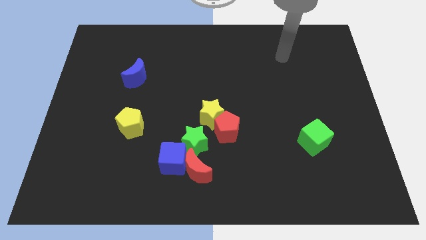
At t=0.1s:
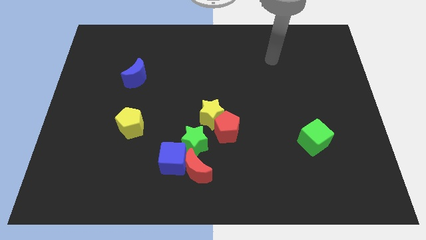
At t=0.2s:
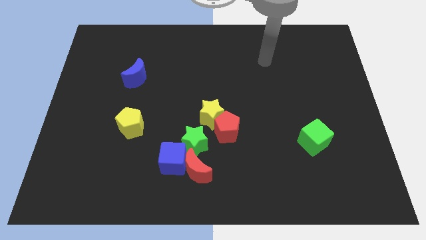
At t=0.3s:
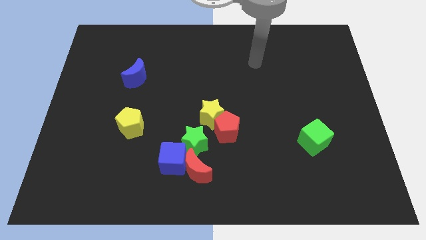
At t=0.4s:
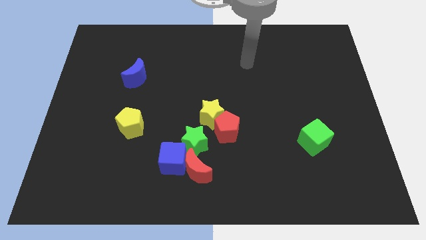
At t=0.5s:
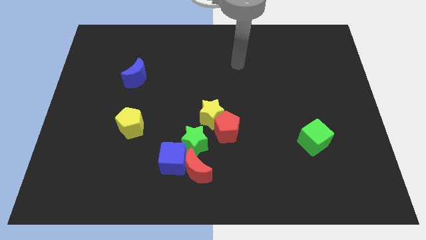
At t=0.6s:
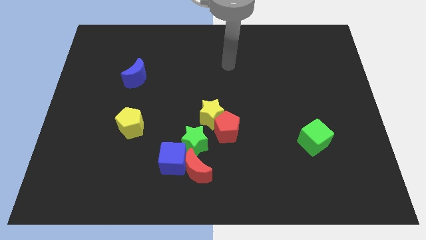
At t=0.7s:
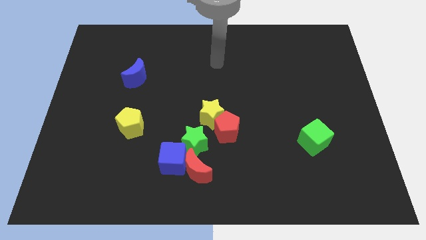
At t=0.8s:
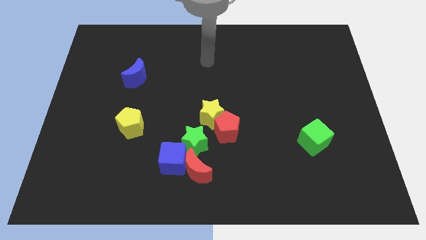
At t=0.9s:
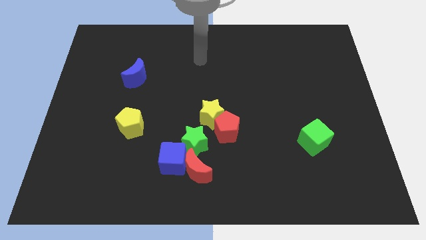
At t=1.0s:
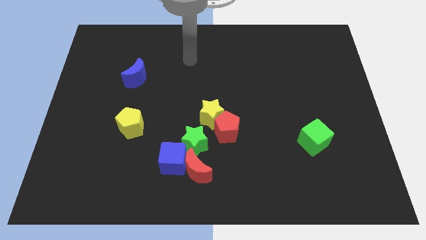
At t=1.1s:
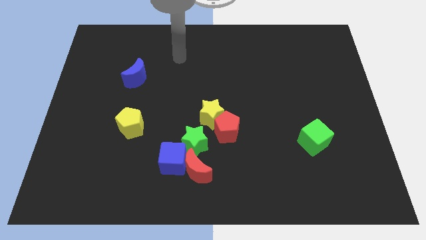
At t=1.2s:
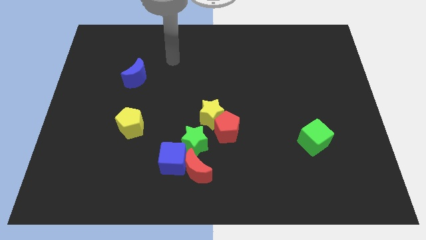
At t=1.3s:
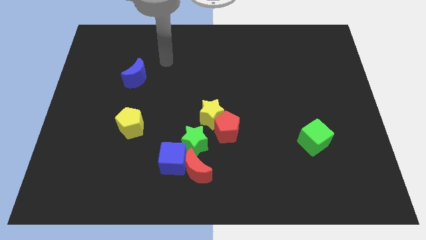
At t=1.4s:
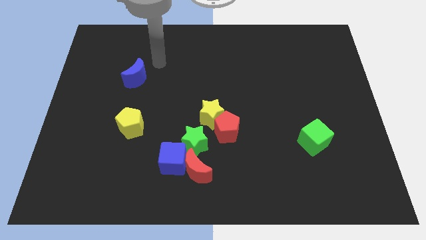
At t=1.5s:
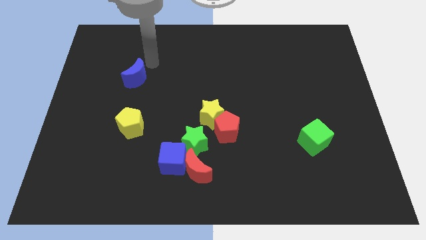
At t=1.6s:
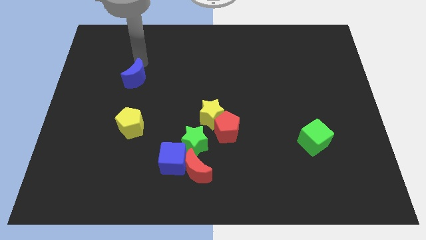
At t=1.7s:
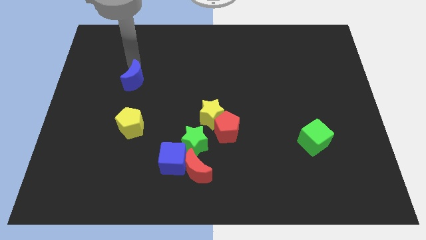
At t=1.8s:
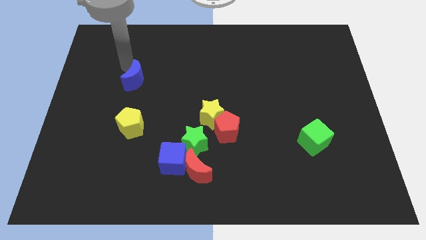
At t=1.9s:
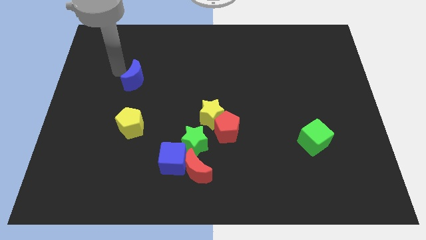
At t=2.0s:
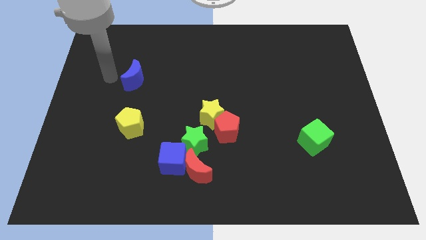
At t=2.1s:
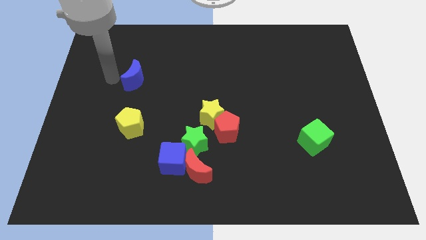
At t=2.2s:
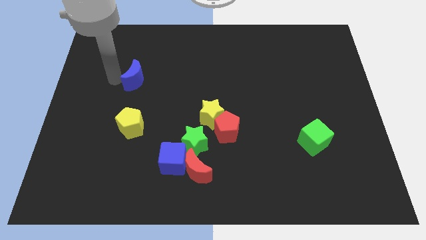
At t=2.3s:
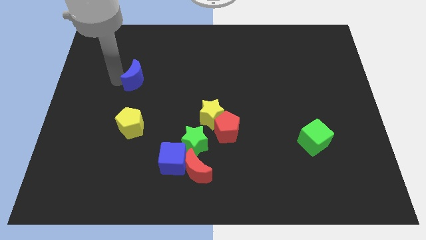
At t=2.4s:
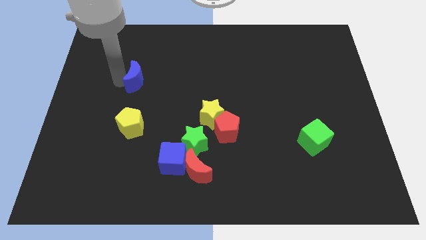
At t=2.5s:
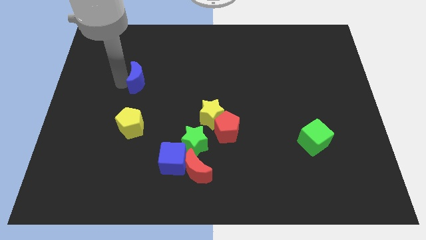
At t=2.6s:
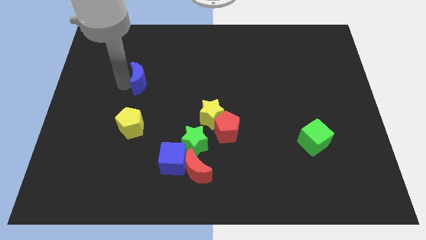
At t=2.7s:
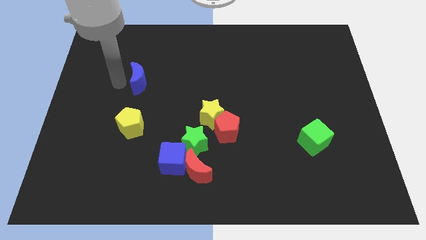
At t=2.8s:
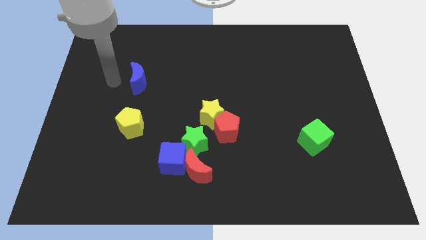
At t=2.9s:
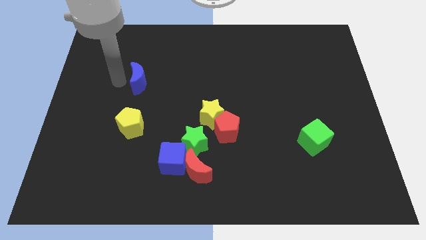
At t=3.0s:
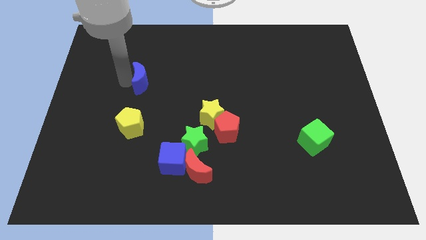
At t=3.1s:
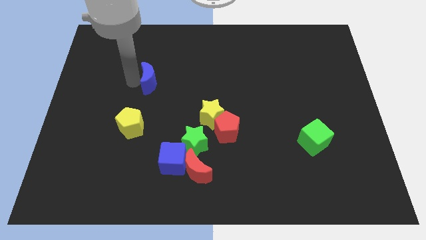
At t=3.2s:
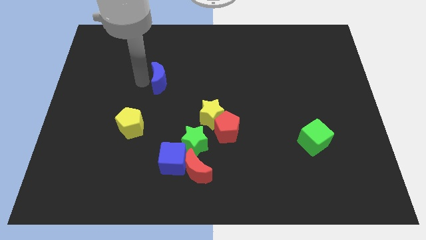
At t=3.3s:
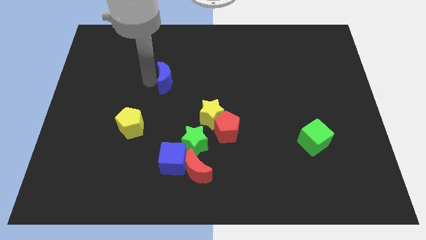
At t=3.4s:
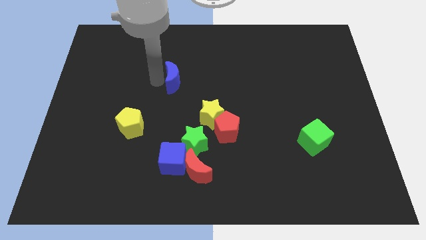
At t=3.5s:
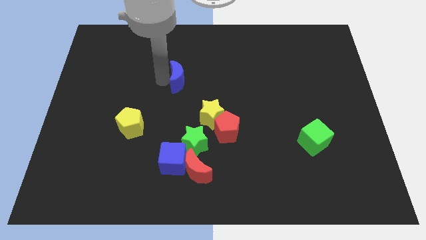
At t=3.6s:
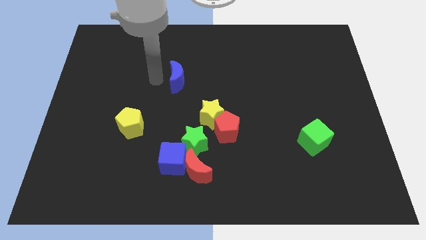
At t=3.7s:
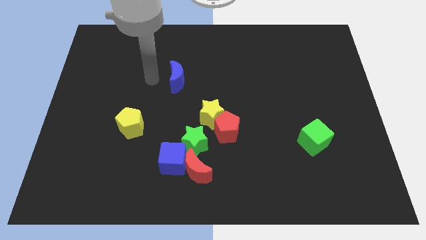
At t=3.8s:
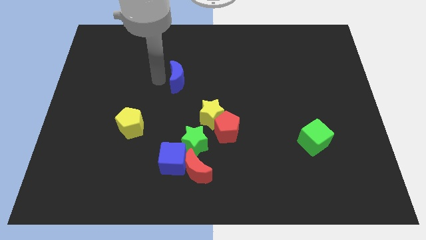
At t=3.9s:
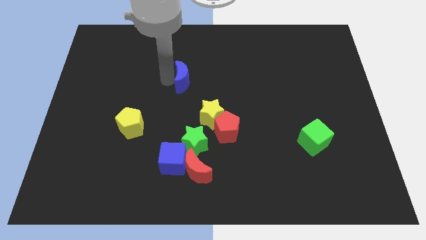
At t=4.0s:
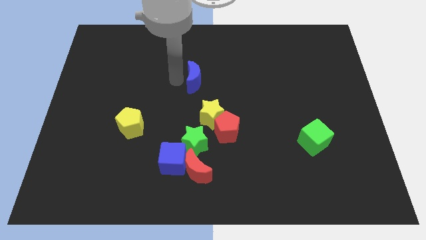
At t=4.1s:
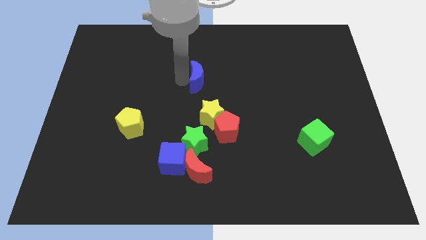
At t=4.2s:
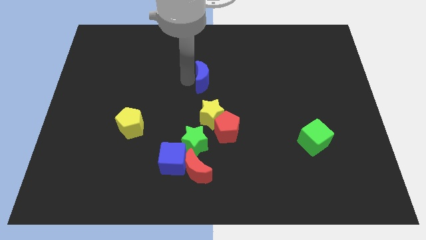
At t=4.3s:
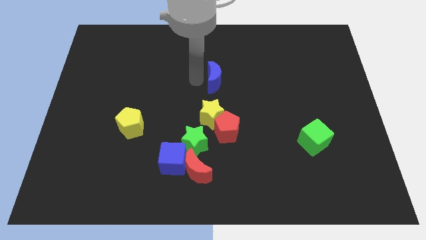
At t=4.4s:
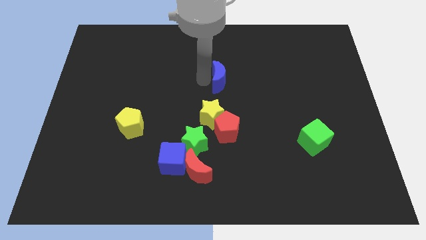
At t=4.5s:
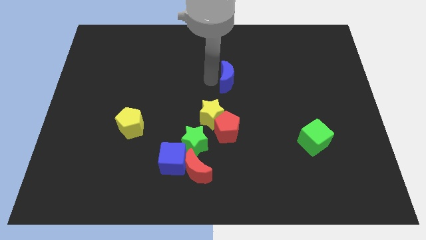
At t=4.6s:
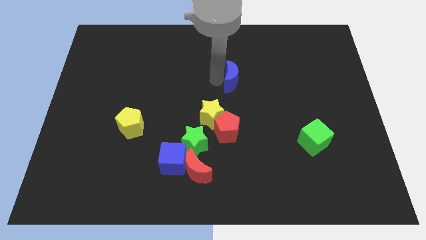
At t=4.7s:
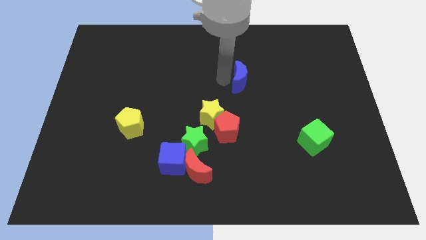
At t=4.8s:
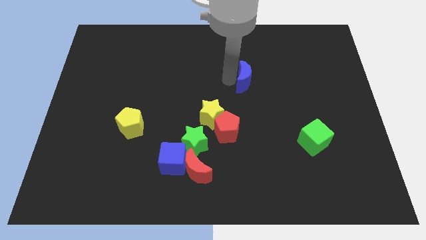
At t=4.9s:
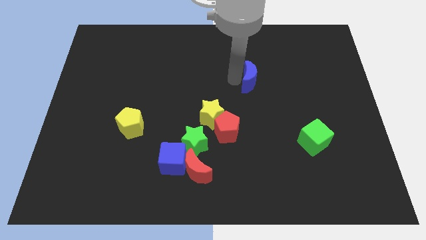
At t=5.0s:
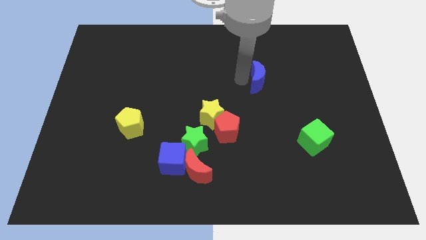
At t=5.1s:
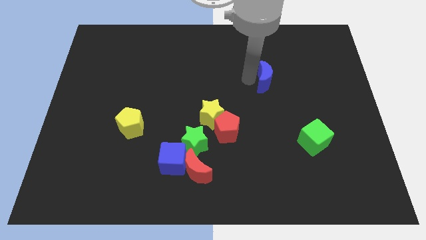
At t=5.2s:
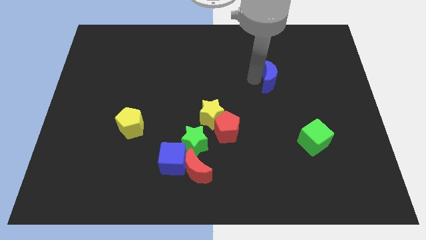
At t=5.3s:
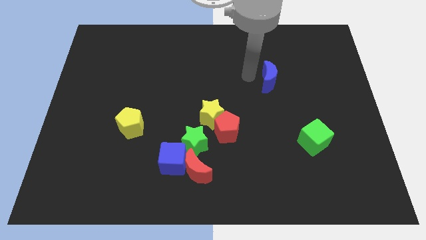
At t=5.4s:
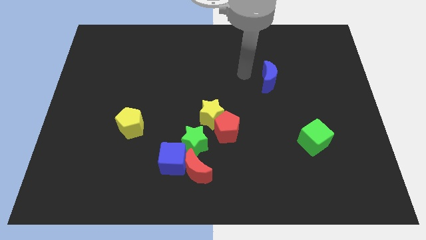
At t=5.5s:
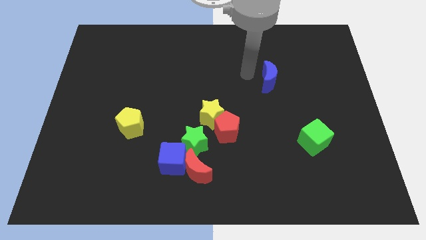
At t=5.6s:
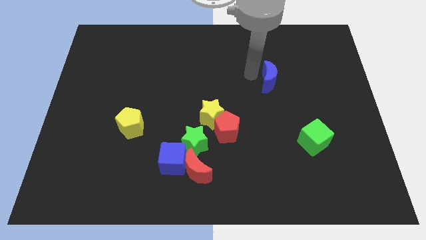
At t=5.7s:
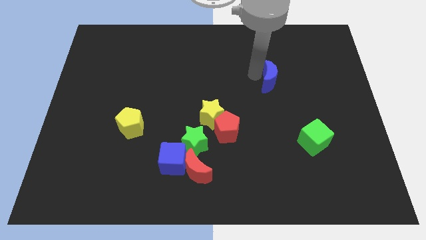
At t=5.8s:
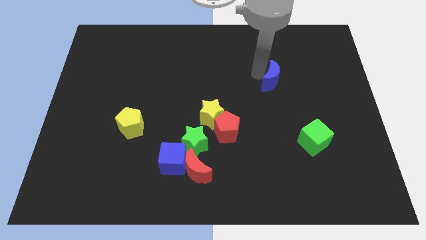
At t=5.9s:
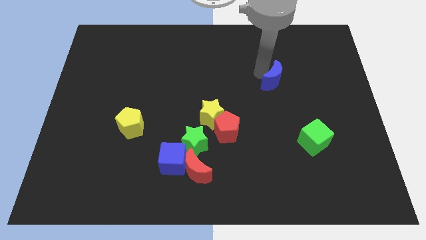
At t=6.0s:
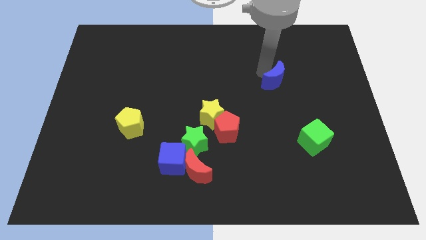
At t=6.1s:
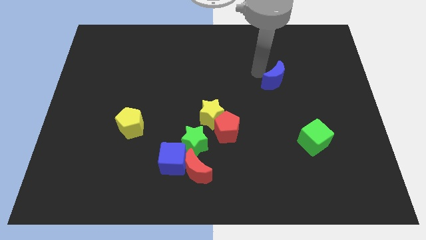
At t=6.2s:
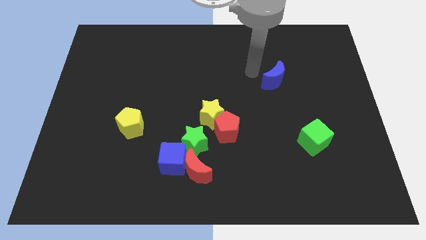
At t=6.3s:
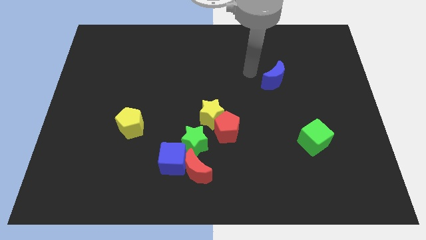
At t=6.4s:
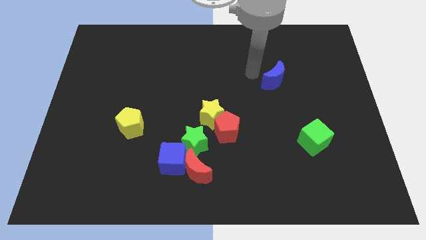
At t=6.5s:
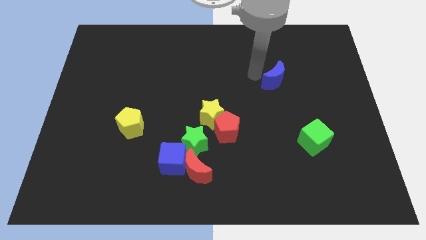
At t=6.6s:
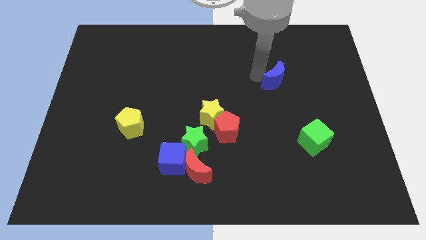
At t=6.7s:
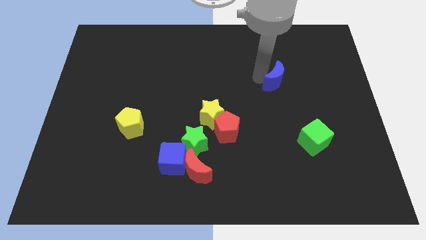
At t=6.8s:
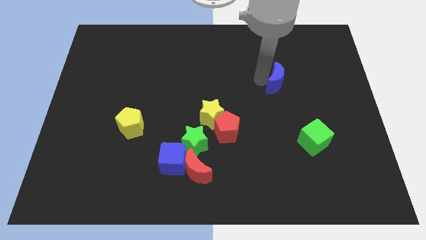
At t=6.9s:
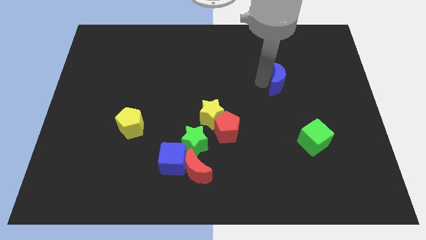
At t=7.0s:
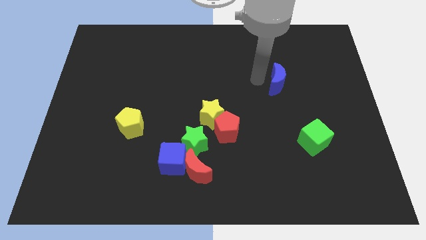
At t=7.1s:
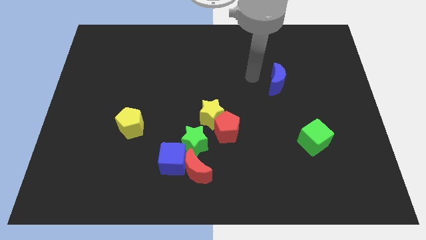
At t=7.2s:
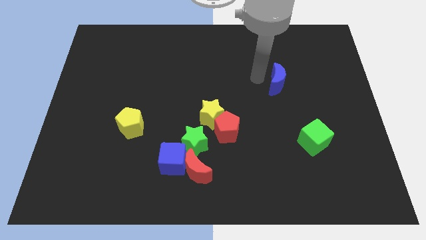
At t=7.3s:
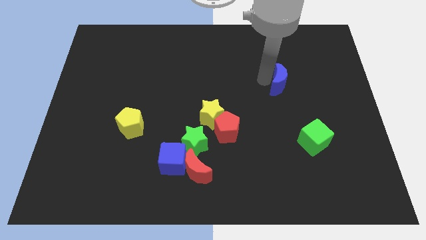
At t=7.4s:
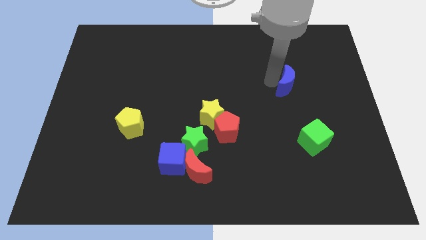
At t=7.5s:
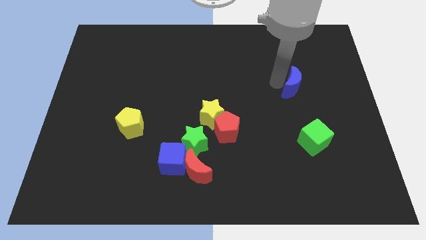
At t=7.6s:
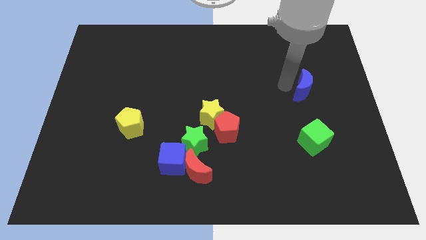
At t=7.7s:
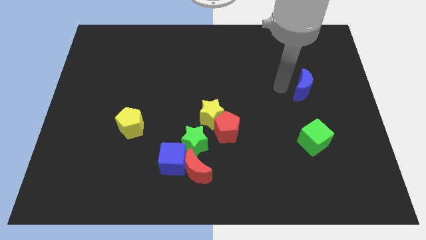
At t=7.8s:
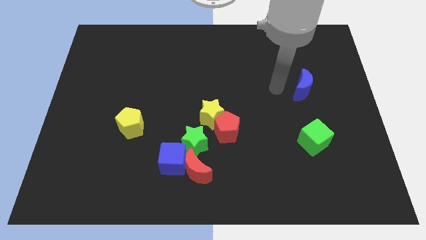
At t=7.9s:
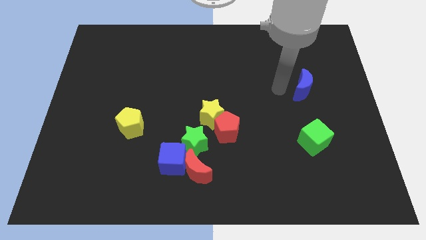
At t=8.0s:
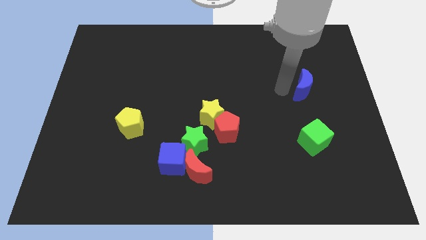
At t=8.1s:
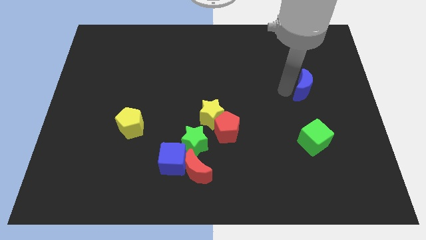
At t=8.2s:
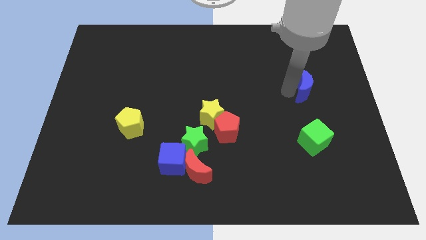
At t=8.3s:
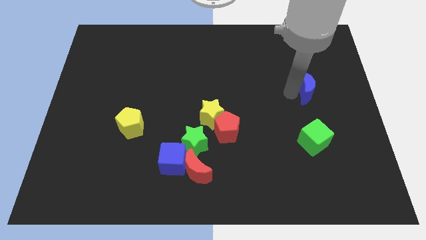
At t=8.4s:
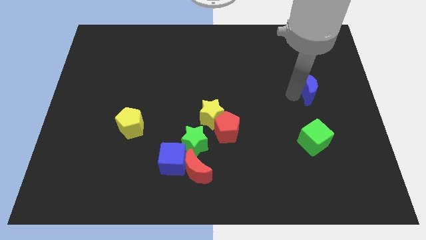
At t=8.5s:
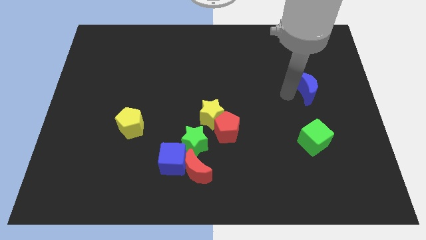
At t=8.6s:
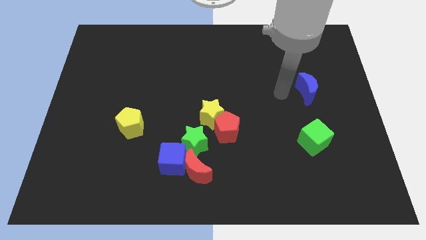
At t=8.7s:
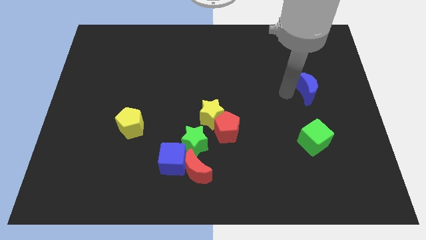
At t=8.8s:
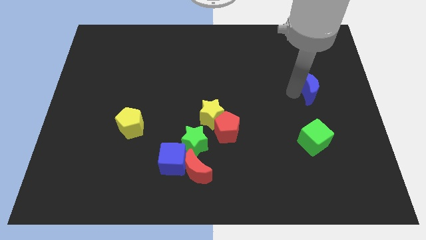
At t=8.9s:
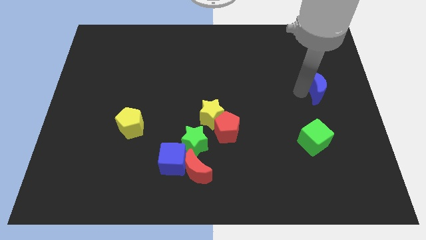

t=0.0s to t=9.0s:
move the blue moon to the right side of the board
